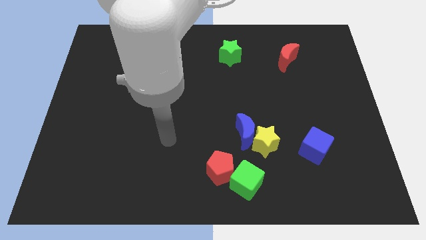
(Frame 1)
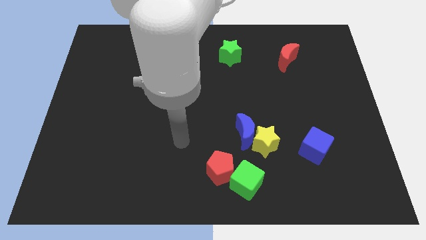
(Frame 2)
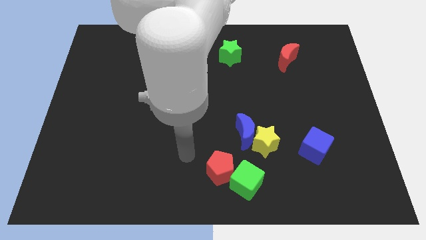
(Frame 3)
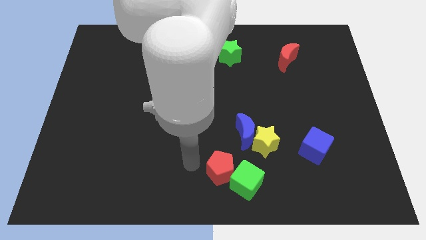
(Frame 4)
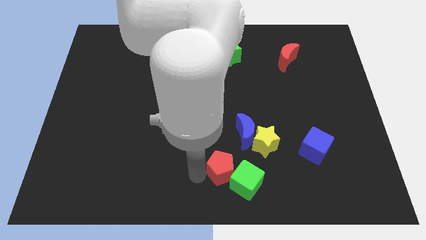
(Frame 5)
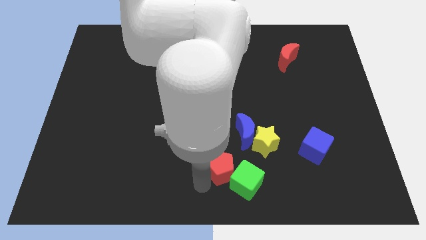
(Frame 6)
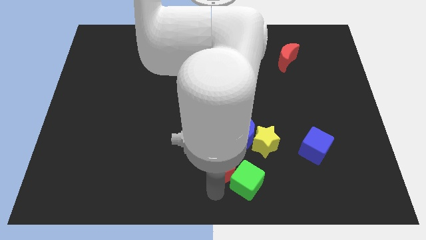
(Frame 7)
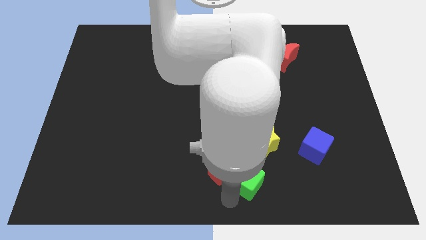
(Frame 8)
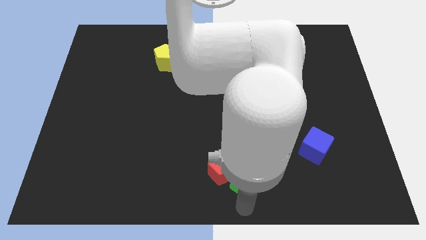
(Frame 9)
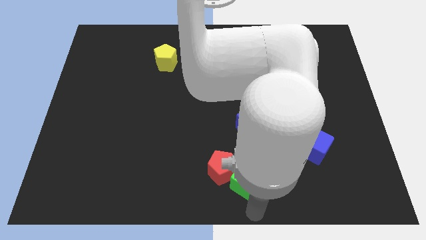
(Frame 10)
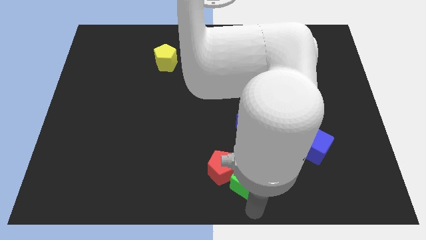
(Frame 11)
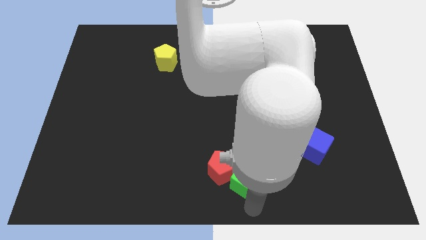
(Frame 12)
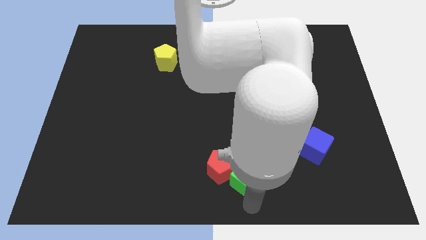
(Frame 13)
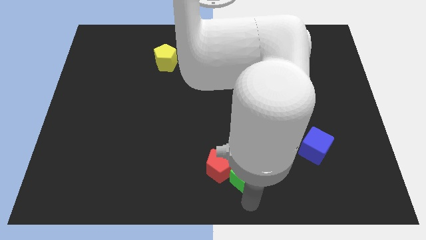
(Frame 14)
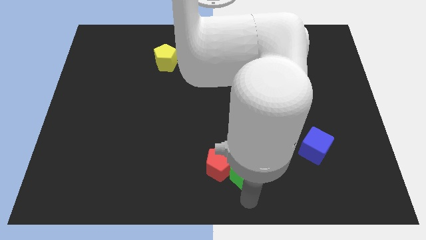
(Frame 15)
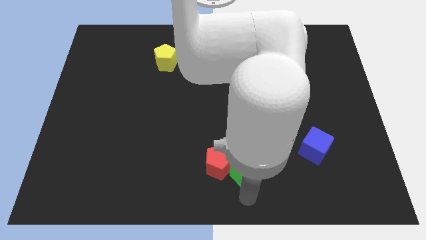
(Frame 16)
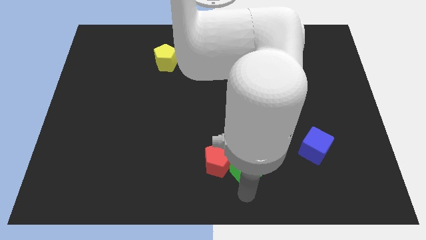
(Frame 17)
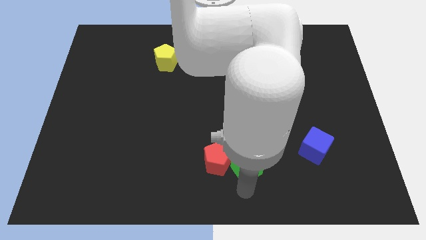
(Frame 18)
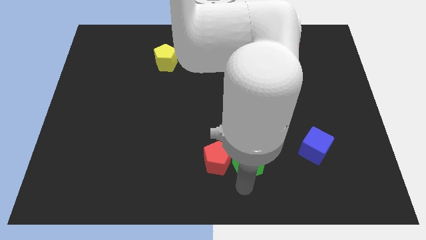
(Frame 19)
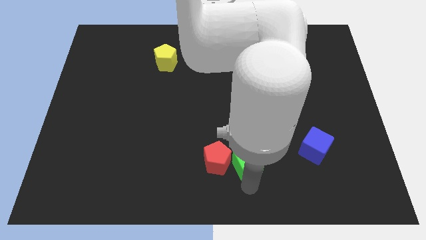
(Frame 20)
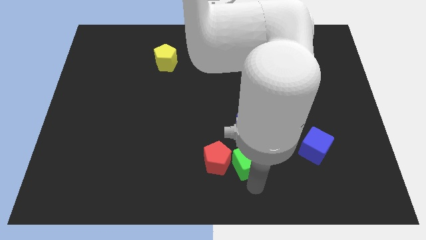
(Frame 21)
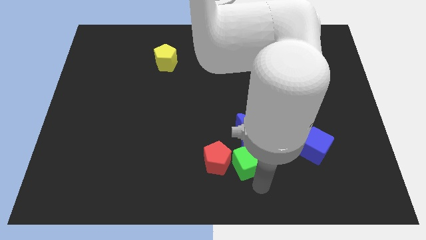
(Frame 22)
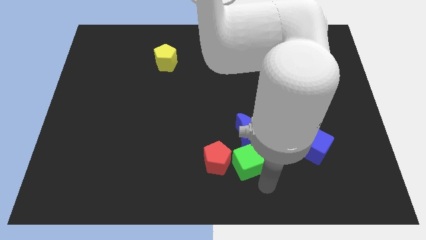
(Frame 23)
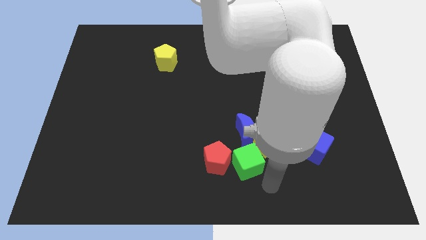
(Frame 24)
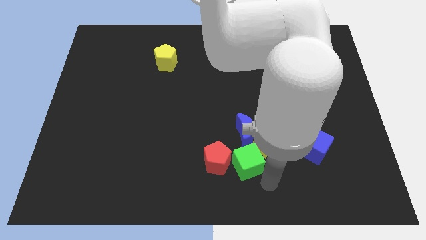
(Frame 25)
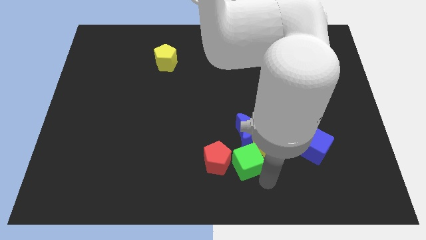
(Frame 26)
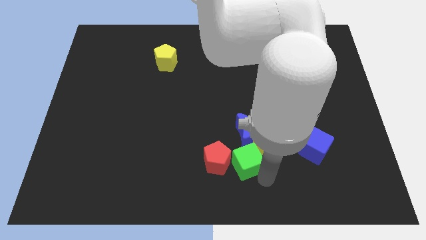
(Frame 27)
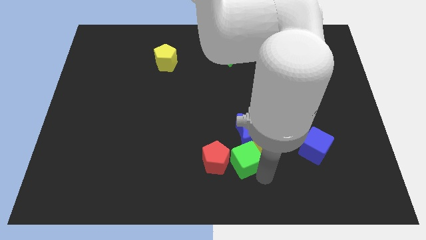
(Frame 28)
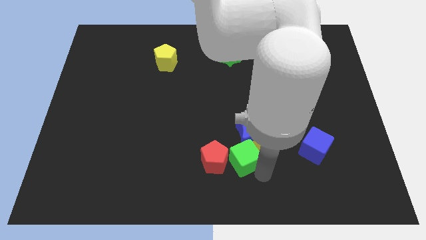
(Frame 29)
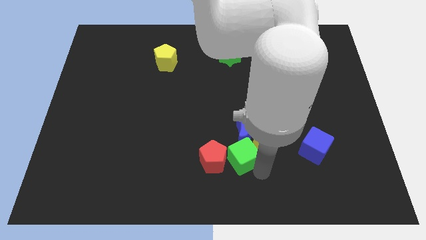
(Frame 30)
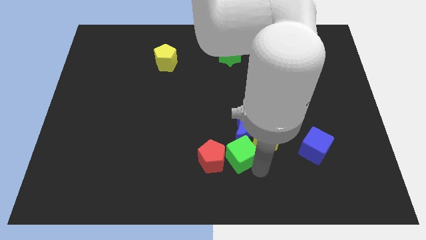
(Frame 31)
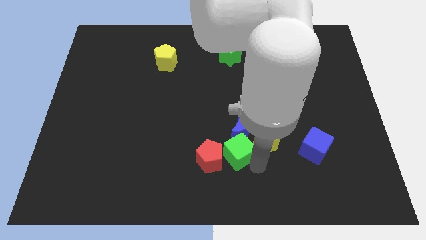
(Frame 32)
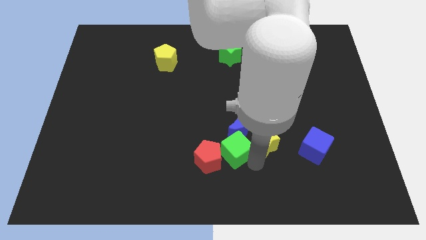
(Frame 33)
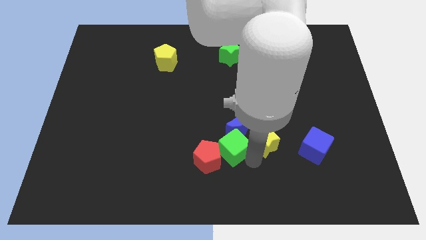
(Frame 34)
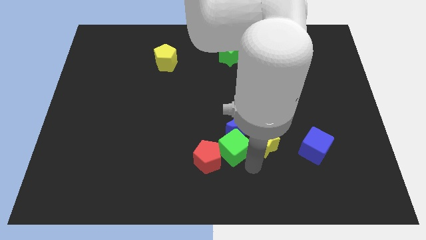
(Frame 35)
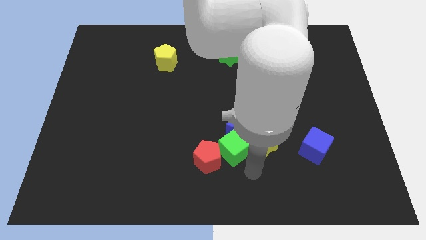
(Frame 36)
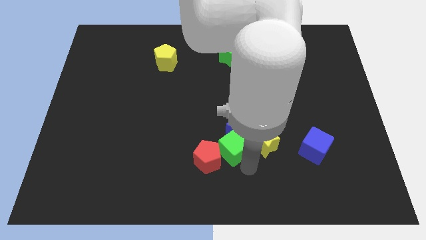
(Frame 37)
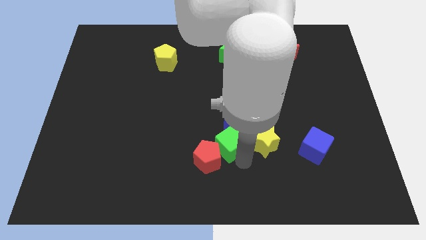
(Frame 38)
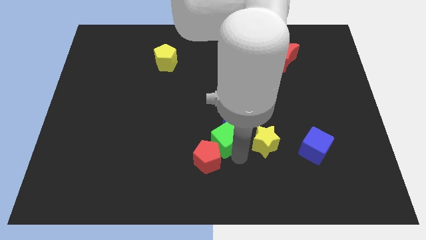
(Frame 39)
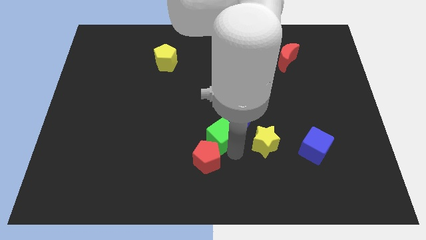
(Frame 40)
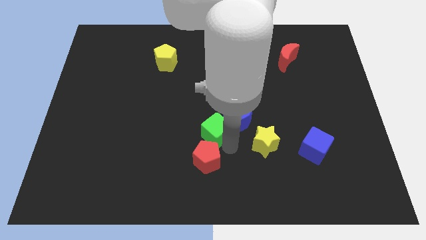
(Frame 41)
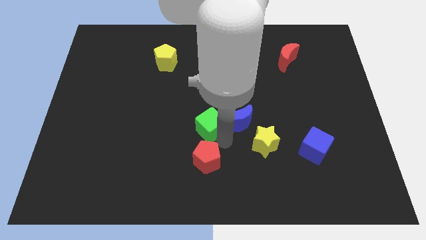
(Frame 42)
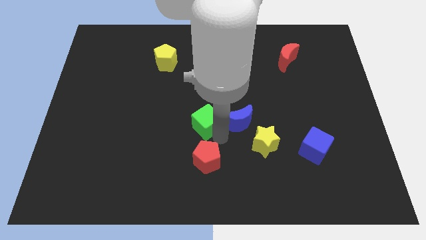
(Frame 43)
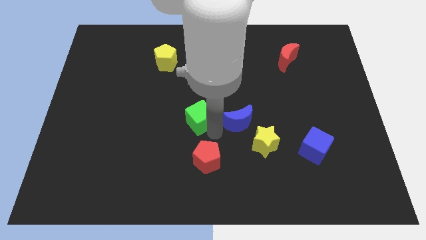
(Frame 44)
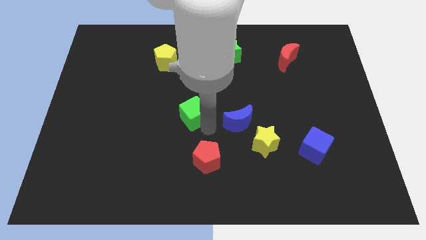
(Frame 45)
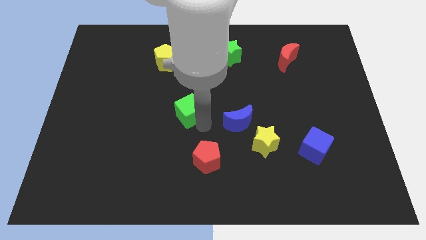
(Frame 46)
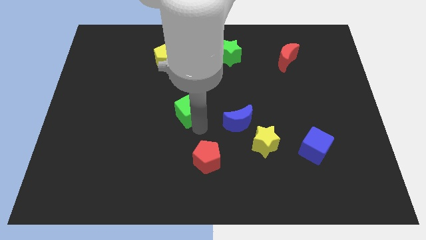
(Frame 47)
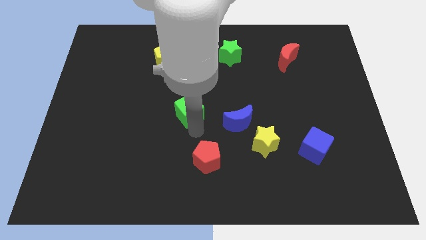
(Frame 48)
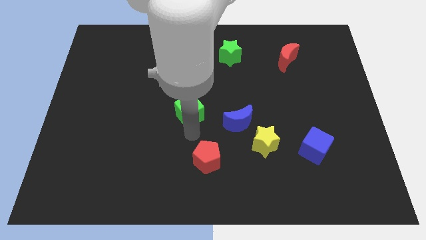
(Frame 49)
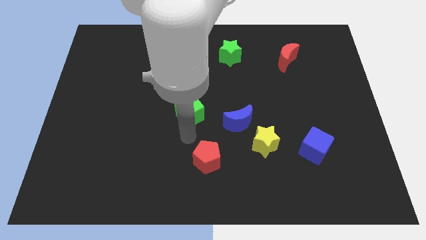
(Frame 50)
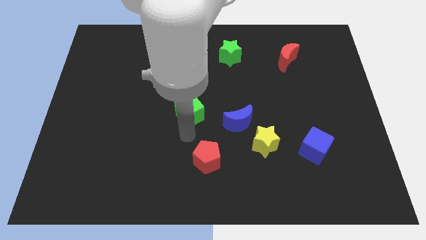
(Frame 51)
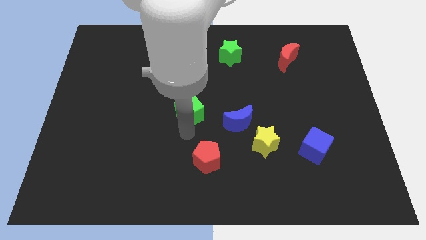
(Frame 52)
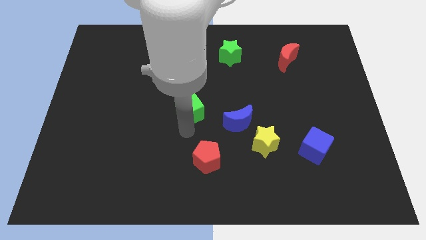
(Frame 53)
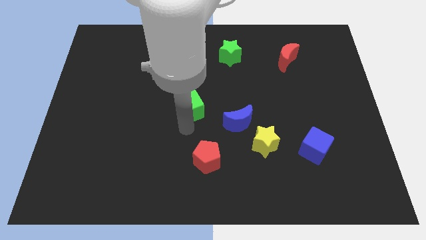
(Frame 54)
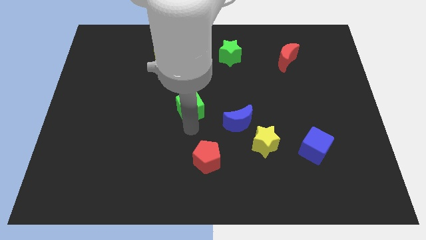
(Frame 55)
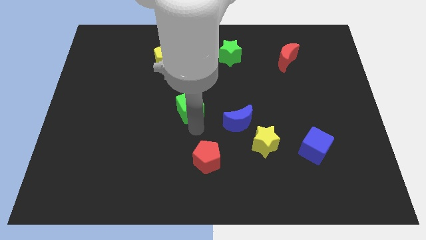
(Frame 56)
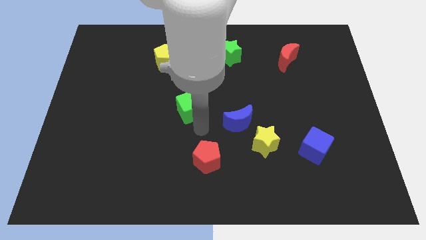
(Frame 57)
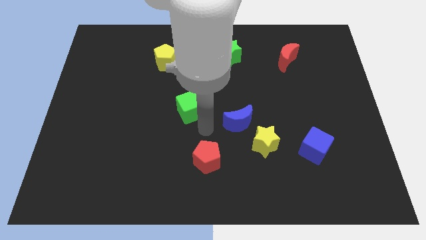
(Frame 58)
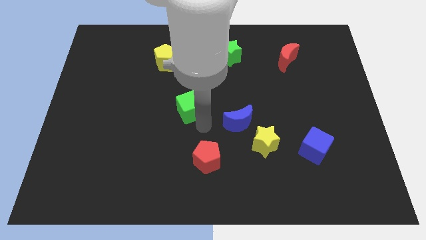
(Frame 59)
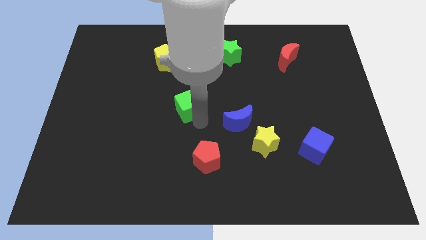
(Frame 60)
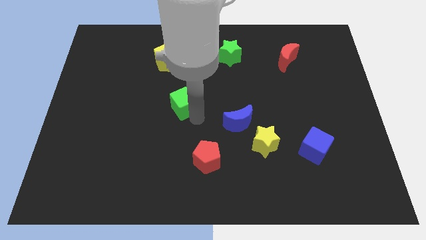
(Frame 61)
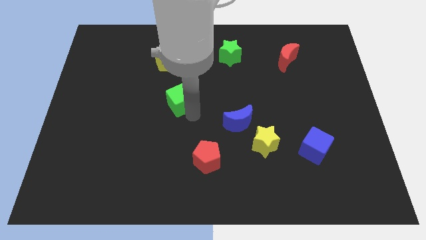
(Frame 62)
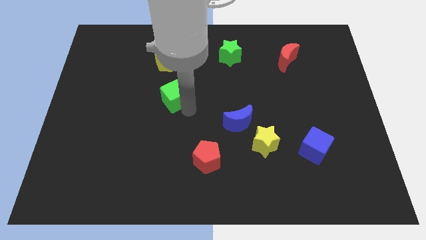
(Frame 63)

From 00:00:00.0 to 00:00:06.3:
move the green cube to the bottom side of the yellow pentagon

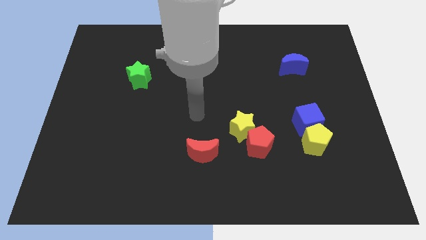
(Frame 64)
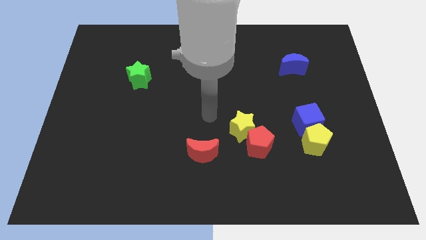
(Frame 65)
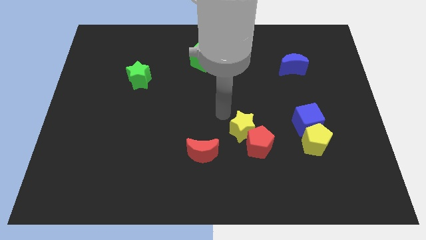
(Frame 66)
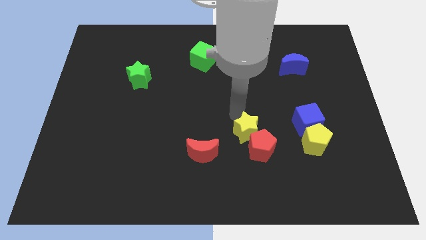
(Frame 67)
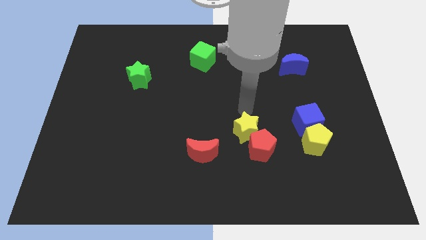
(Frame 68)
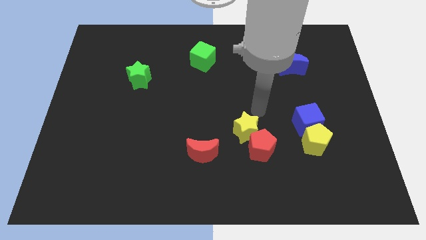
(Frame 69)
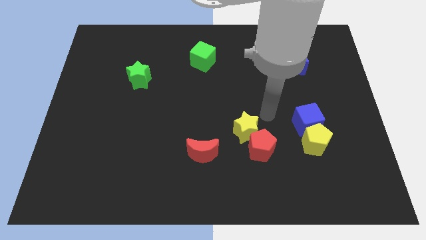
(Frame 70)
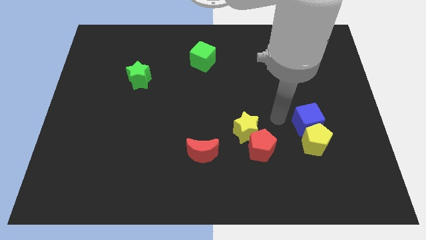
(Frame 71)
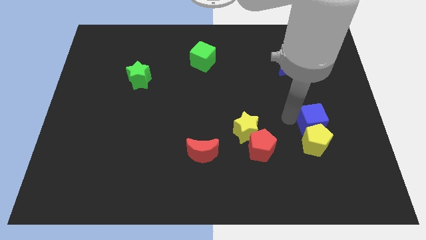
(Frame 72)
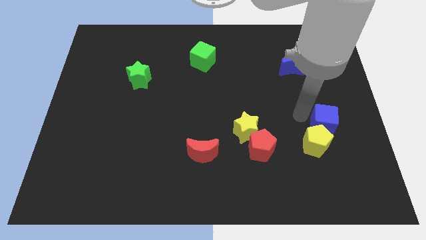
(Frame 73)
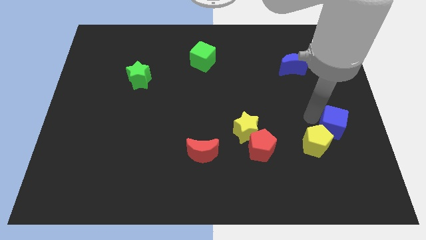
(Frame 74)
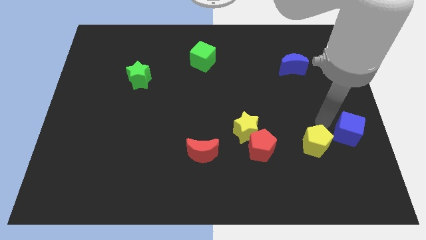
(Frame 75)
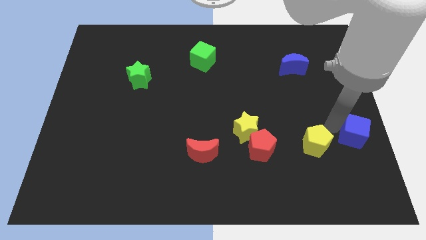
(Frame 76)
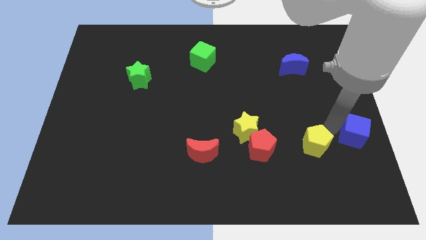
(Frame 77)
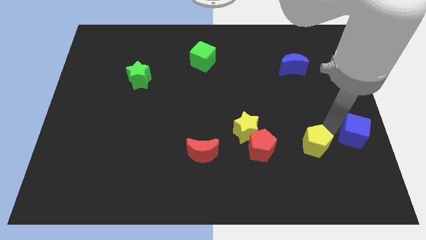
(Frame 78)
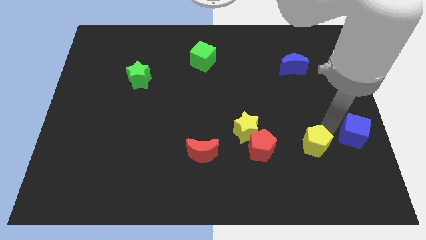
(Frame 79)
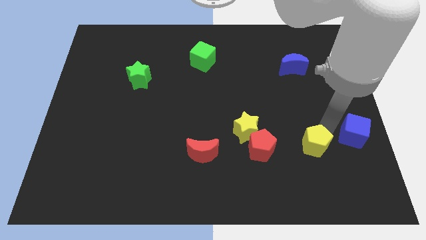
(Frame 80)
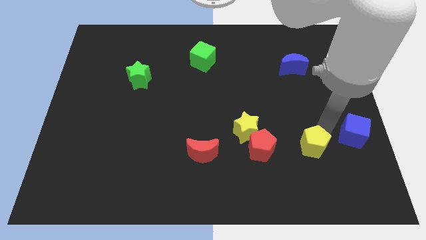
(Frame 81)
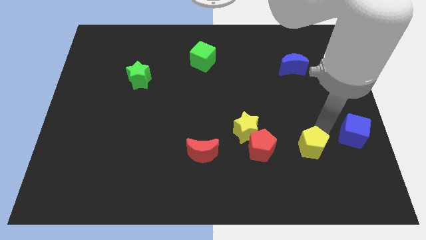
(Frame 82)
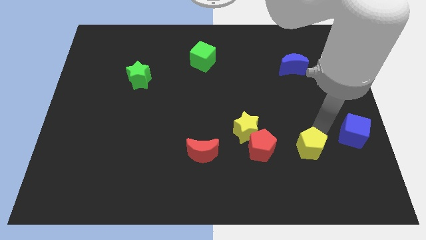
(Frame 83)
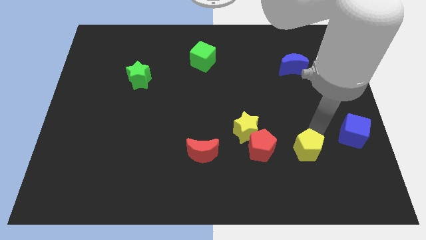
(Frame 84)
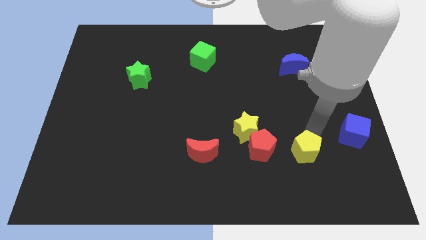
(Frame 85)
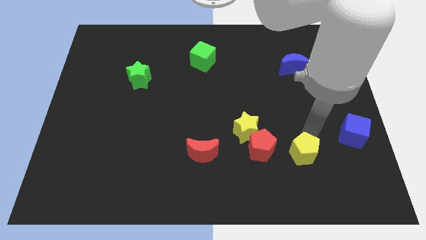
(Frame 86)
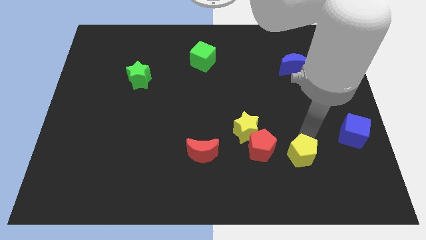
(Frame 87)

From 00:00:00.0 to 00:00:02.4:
move the yellow pentagon to the bottom right of the red pentagon
